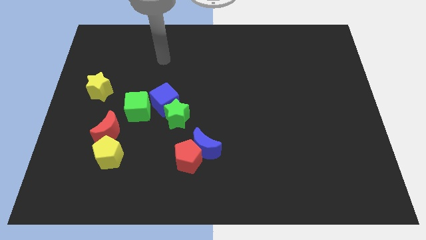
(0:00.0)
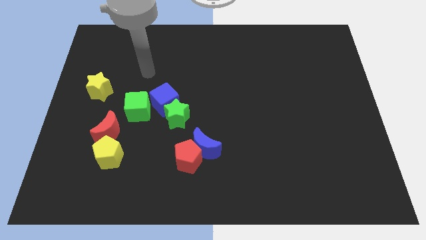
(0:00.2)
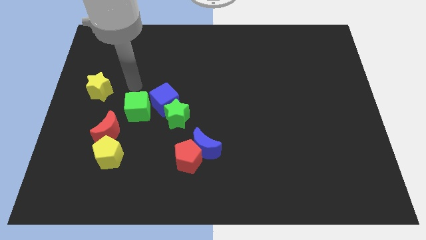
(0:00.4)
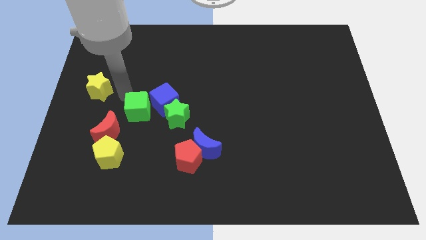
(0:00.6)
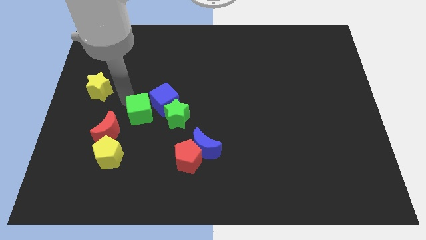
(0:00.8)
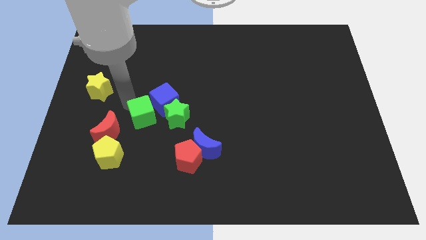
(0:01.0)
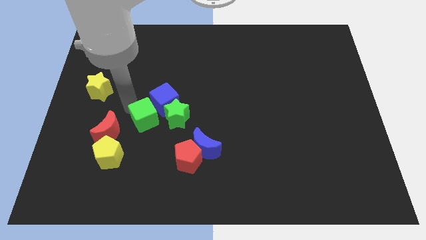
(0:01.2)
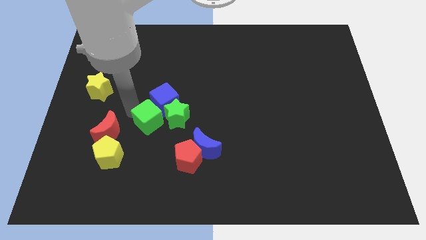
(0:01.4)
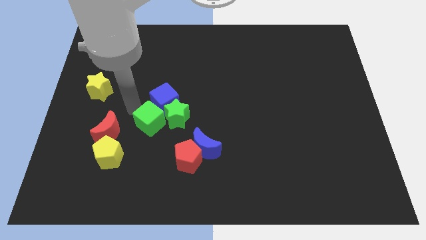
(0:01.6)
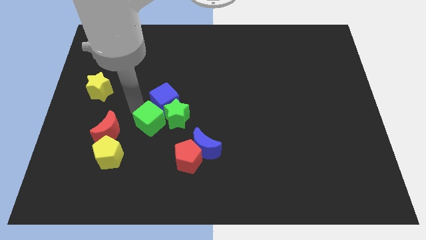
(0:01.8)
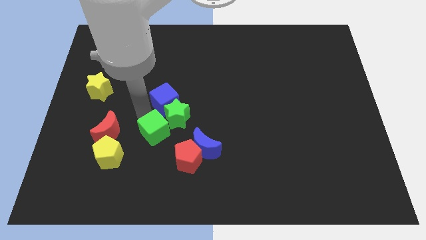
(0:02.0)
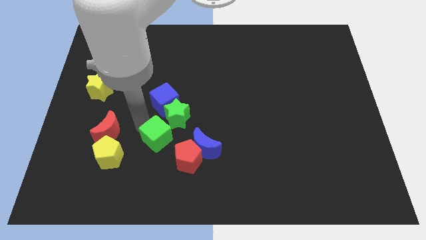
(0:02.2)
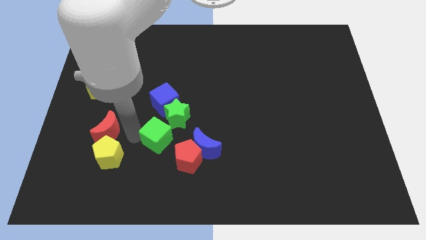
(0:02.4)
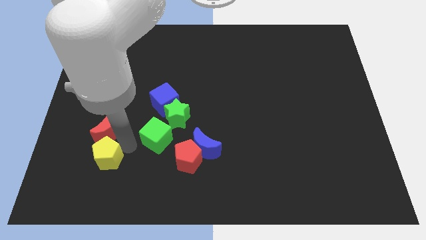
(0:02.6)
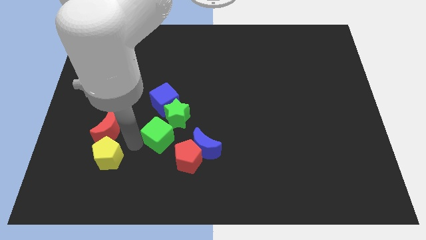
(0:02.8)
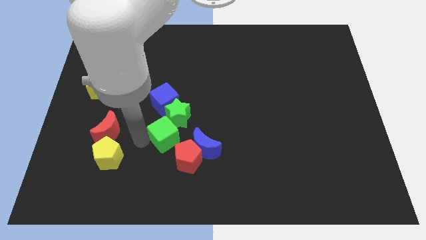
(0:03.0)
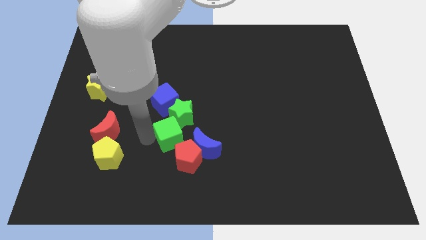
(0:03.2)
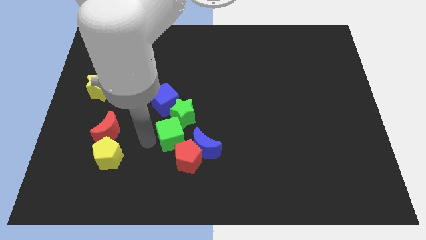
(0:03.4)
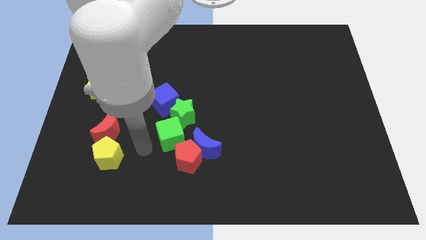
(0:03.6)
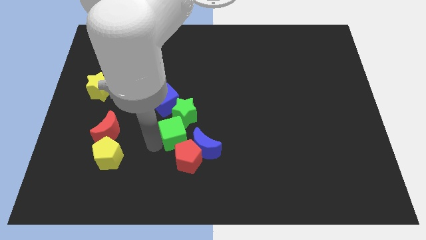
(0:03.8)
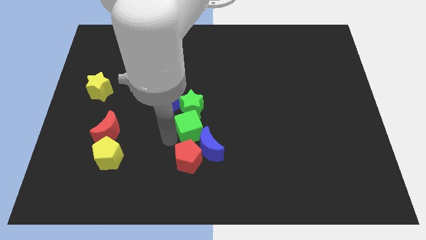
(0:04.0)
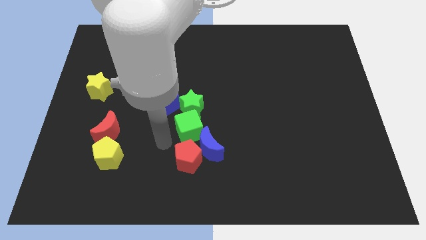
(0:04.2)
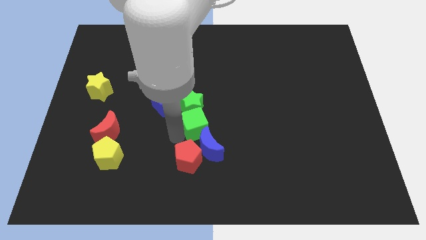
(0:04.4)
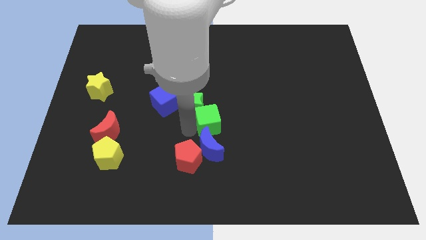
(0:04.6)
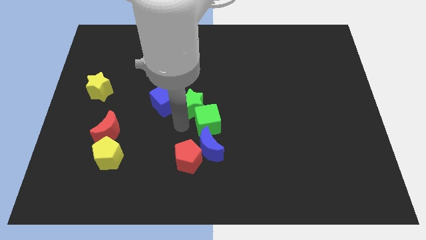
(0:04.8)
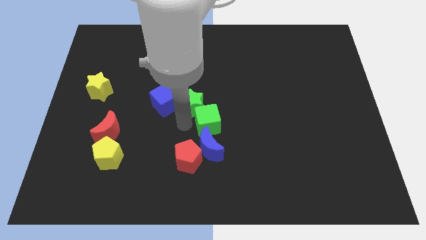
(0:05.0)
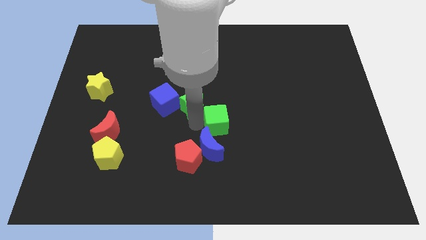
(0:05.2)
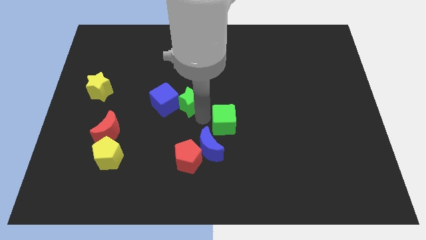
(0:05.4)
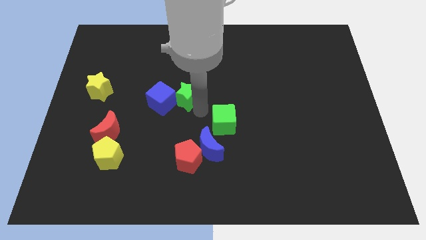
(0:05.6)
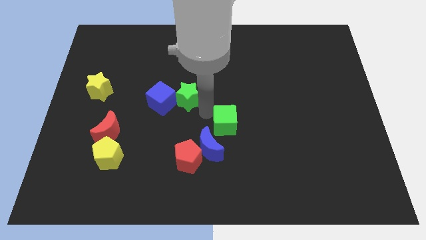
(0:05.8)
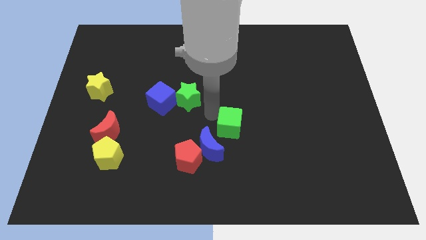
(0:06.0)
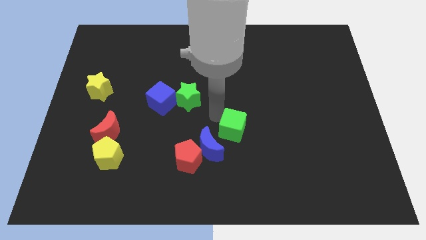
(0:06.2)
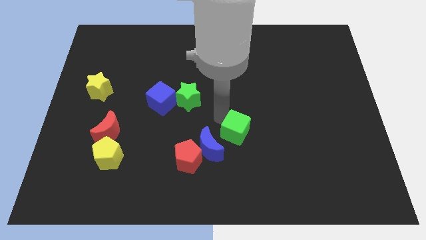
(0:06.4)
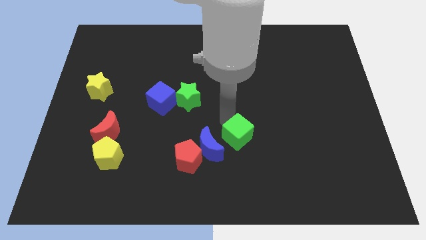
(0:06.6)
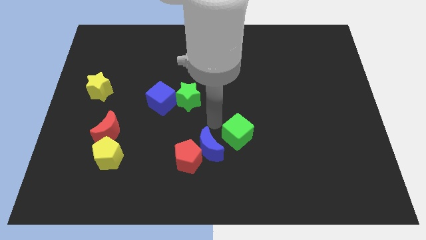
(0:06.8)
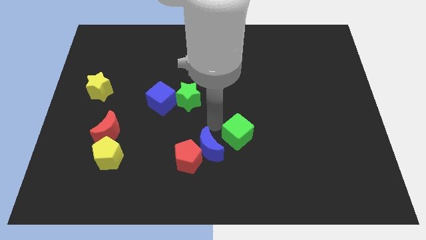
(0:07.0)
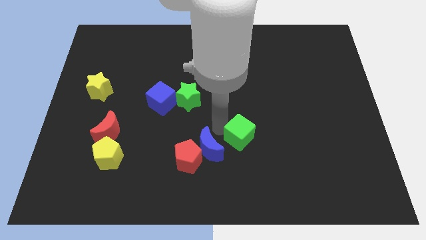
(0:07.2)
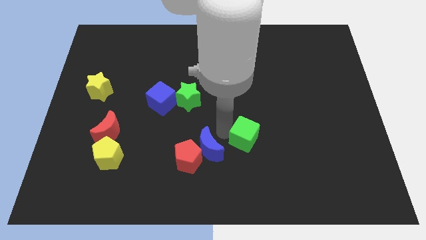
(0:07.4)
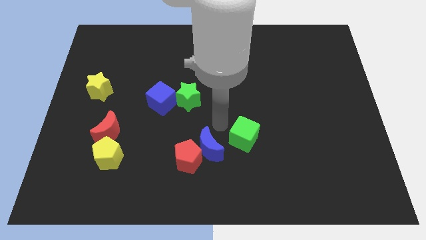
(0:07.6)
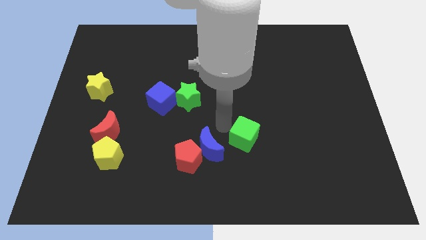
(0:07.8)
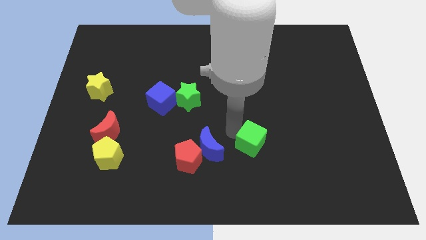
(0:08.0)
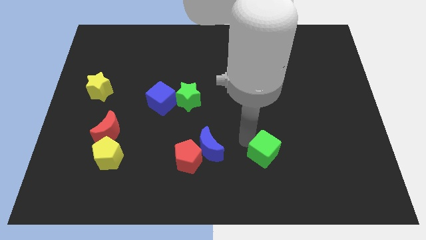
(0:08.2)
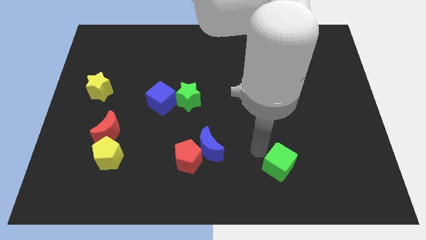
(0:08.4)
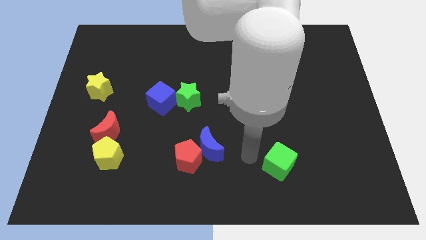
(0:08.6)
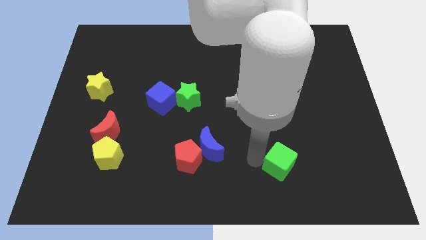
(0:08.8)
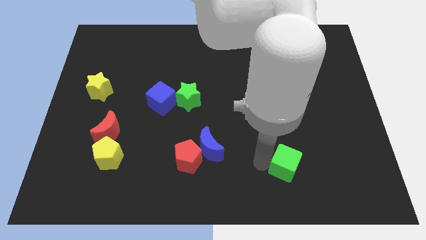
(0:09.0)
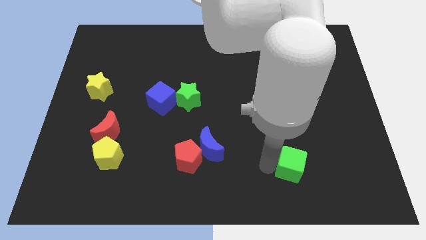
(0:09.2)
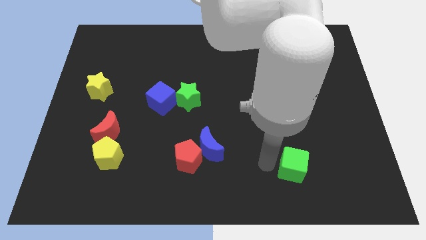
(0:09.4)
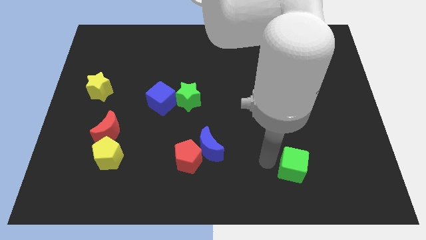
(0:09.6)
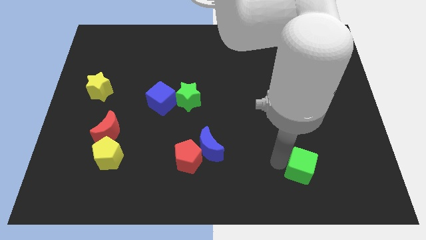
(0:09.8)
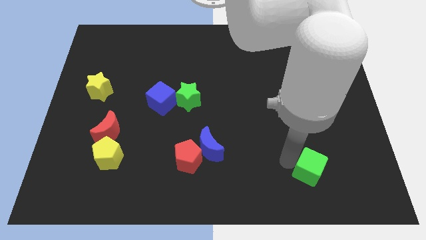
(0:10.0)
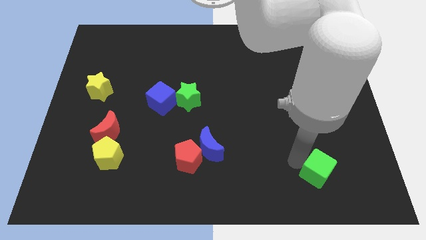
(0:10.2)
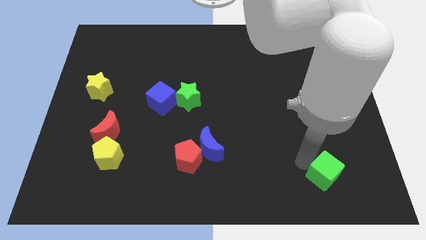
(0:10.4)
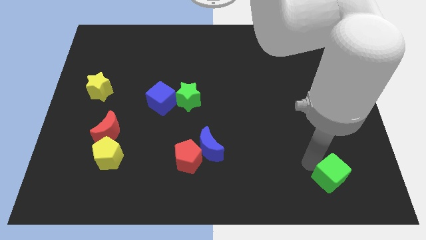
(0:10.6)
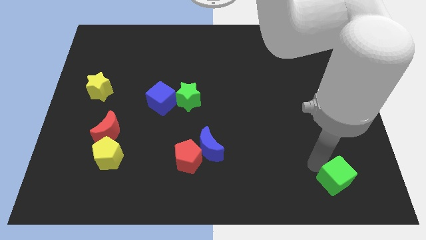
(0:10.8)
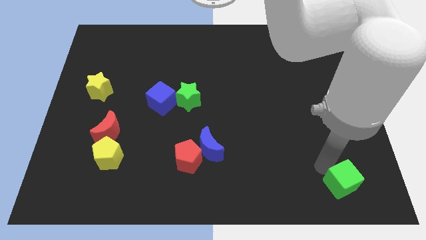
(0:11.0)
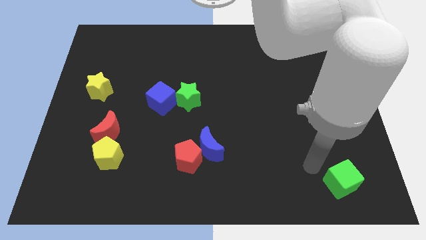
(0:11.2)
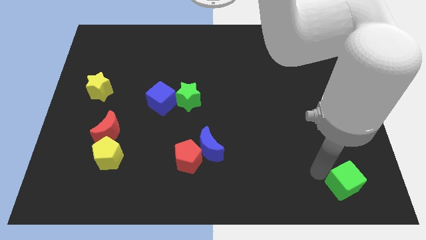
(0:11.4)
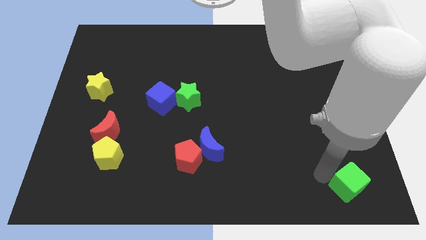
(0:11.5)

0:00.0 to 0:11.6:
move the green cube to the bottom right

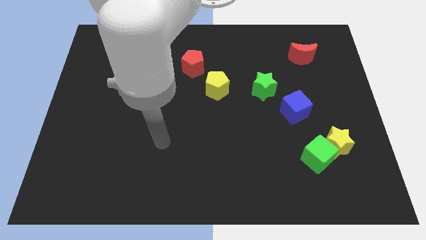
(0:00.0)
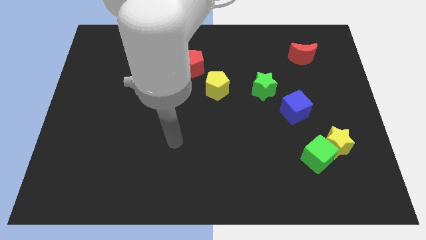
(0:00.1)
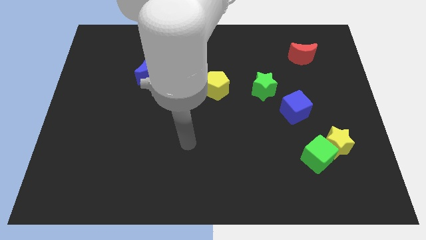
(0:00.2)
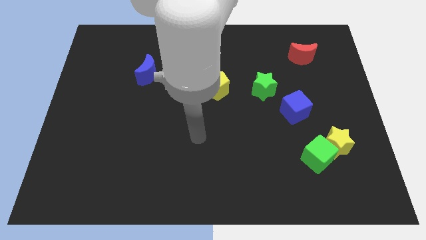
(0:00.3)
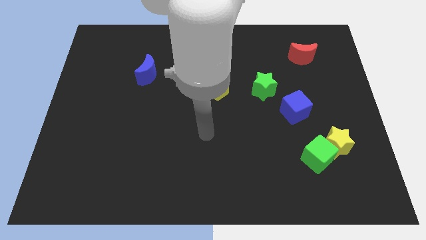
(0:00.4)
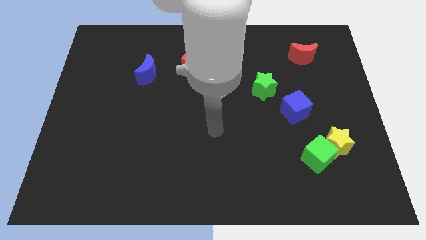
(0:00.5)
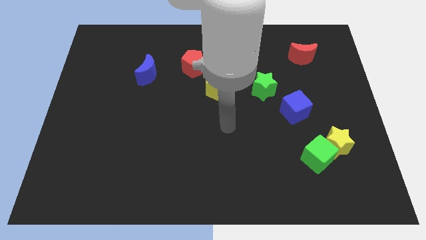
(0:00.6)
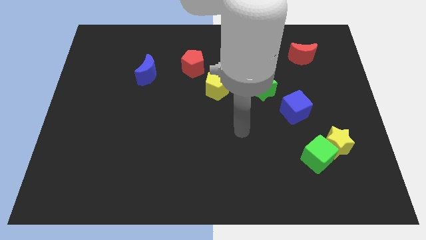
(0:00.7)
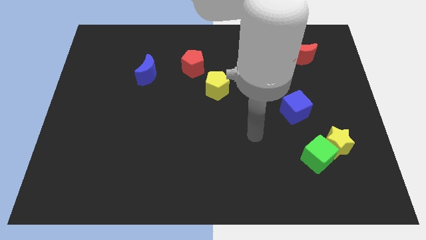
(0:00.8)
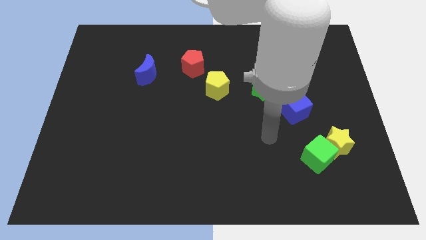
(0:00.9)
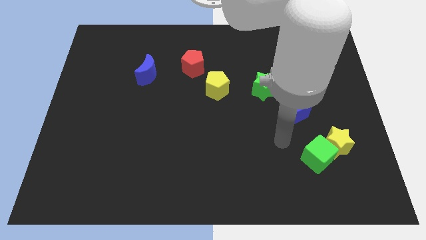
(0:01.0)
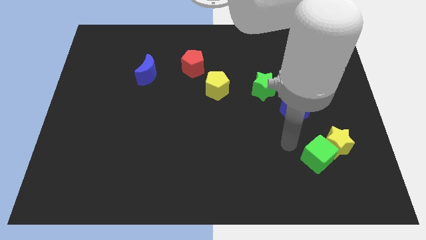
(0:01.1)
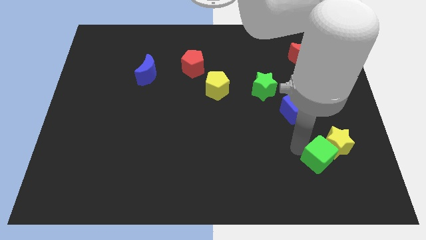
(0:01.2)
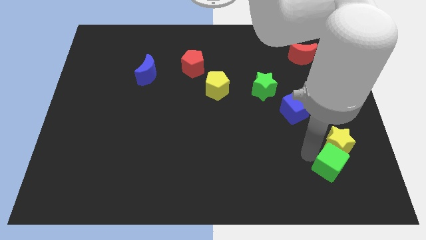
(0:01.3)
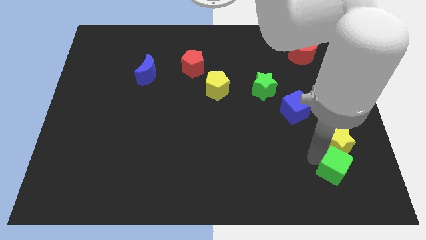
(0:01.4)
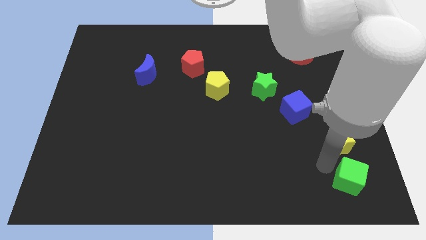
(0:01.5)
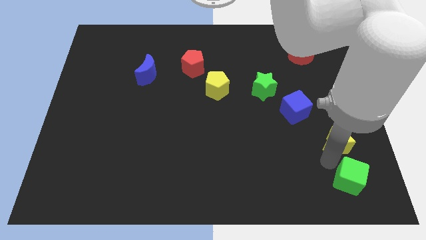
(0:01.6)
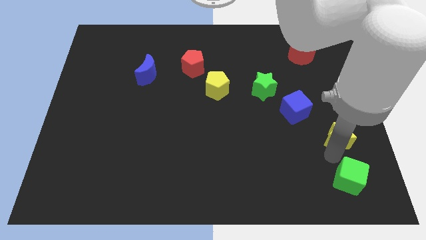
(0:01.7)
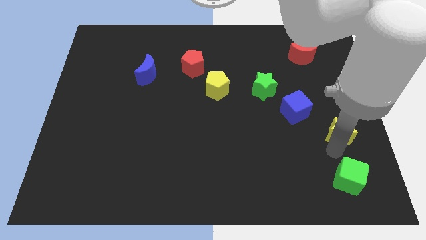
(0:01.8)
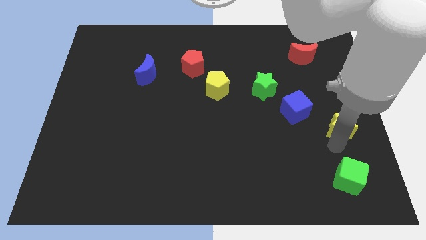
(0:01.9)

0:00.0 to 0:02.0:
move the yellow star to the right side
